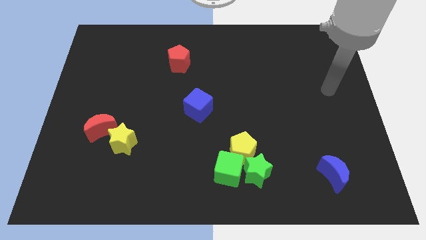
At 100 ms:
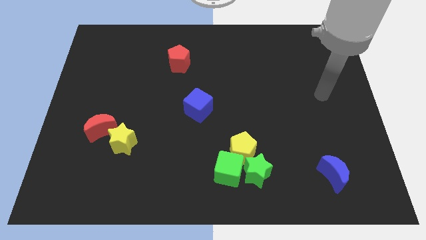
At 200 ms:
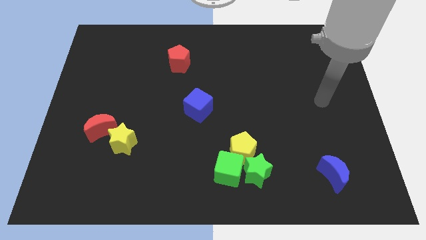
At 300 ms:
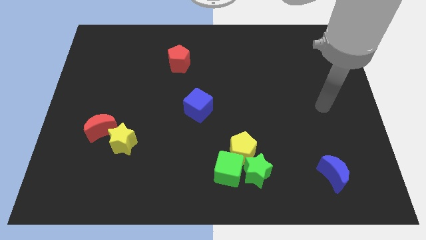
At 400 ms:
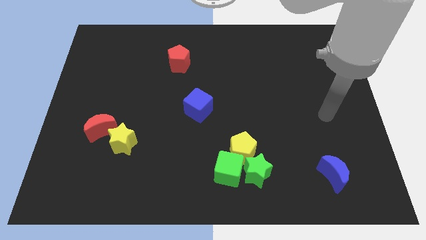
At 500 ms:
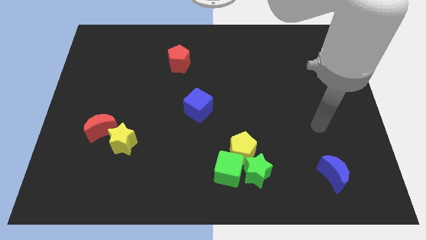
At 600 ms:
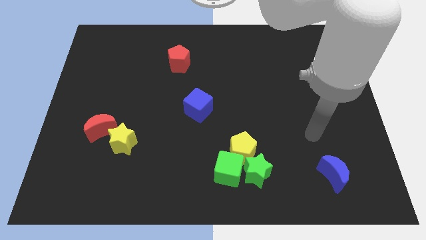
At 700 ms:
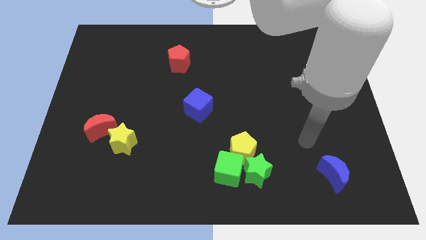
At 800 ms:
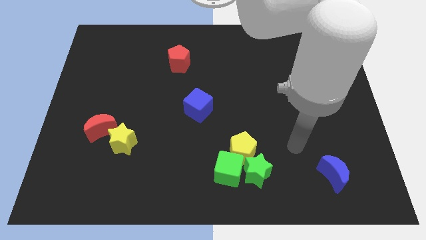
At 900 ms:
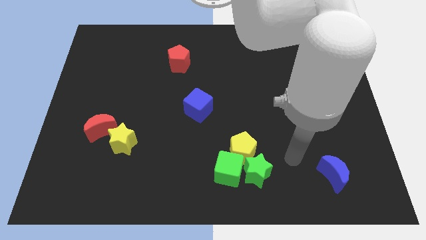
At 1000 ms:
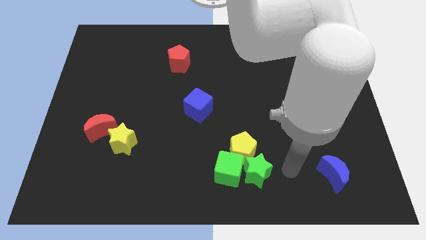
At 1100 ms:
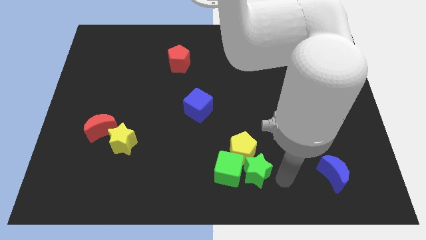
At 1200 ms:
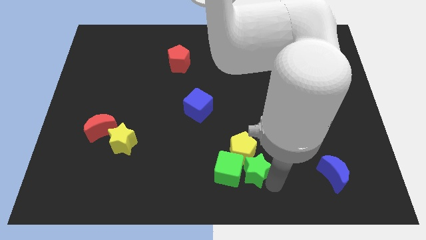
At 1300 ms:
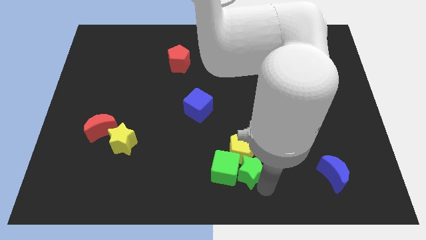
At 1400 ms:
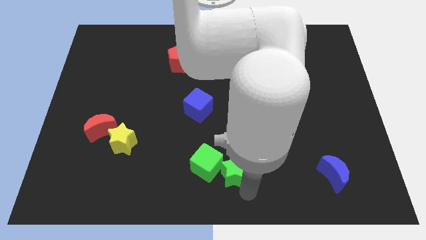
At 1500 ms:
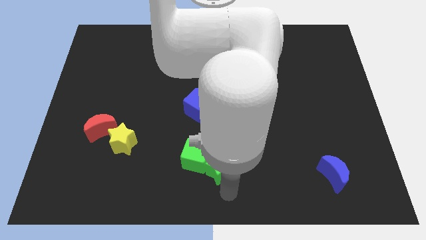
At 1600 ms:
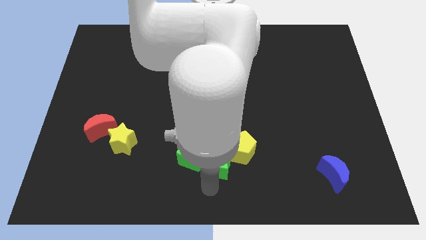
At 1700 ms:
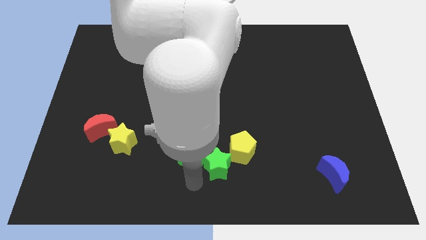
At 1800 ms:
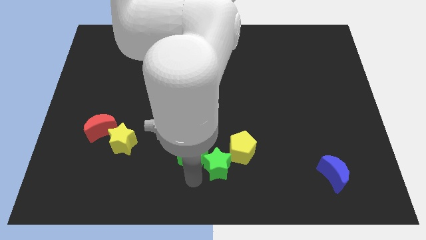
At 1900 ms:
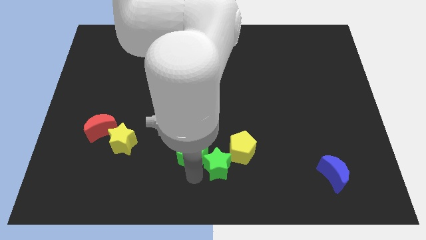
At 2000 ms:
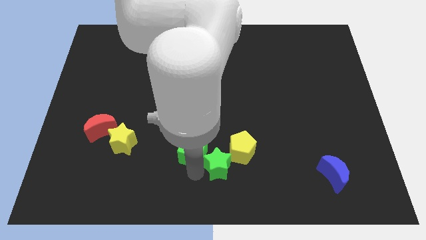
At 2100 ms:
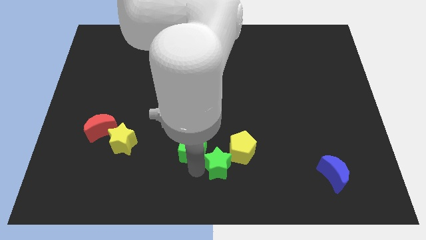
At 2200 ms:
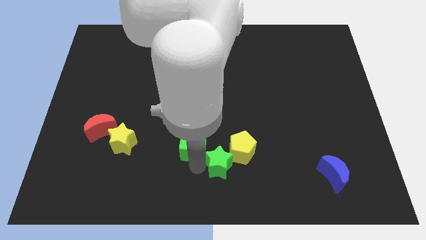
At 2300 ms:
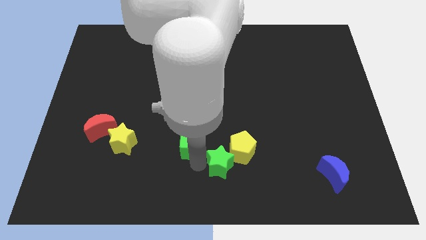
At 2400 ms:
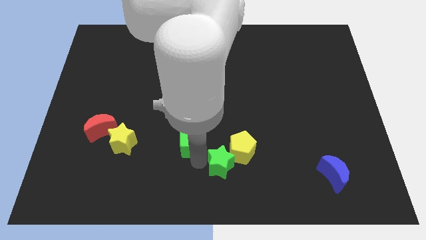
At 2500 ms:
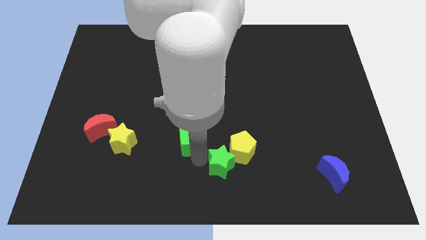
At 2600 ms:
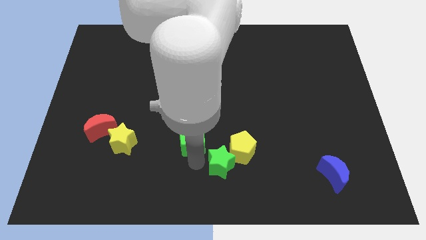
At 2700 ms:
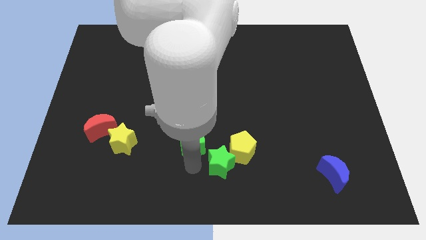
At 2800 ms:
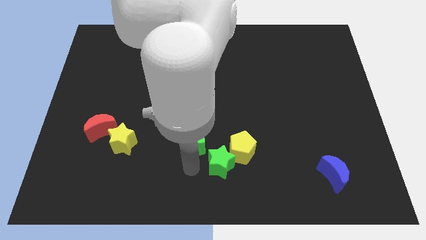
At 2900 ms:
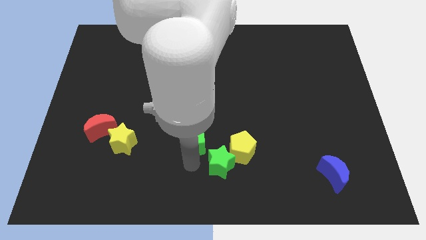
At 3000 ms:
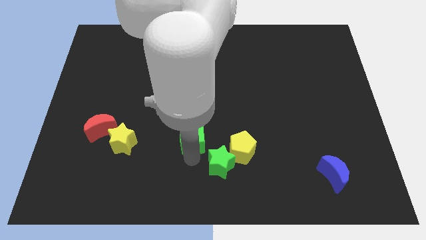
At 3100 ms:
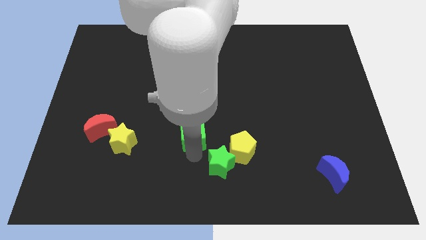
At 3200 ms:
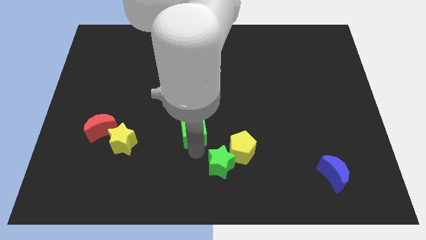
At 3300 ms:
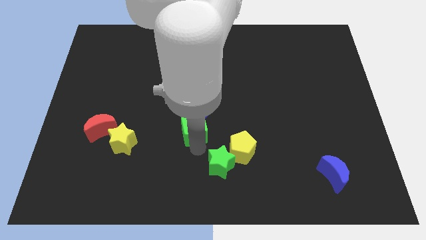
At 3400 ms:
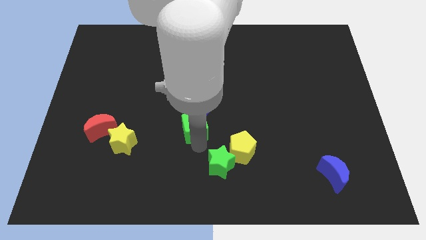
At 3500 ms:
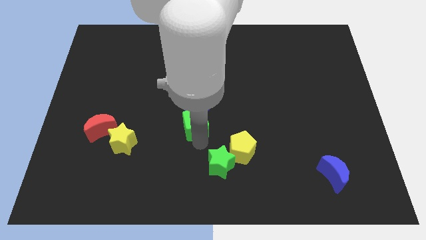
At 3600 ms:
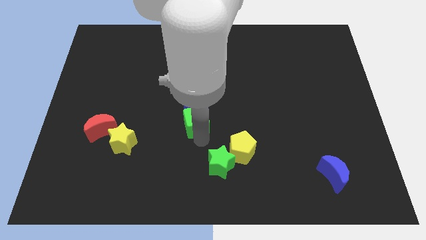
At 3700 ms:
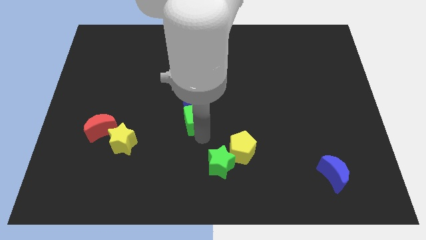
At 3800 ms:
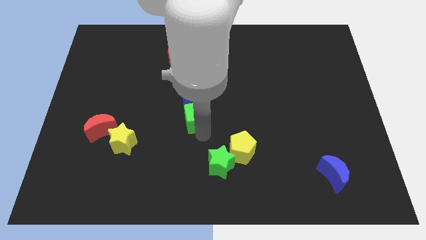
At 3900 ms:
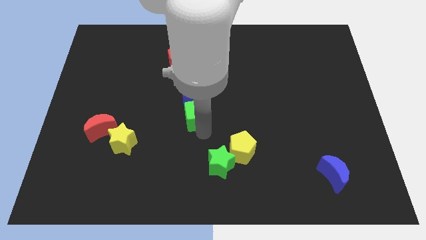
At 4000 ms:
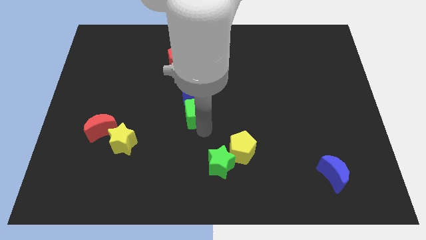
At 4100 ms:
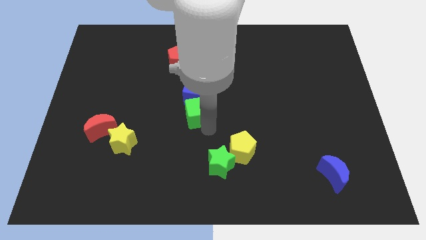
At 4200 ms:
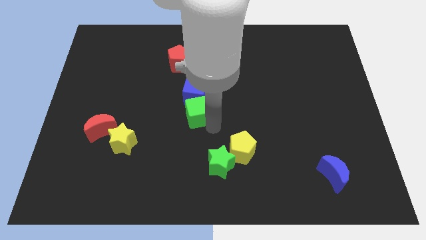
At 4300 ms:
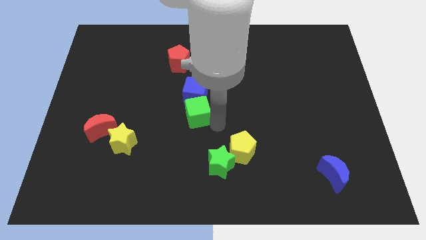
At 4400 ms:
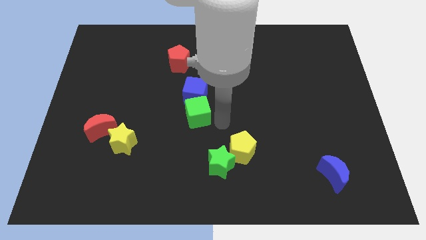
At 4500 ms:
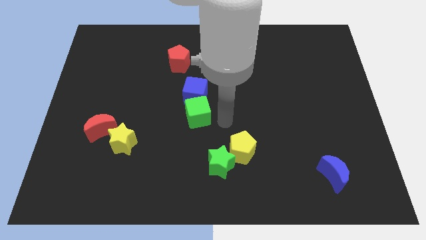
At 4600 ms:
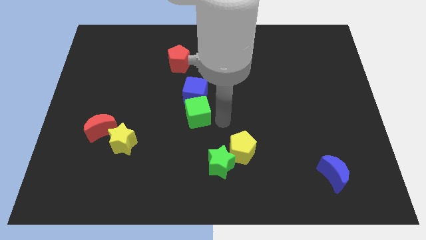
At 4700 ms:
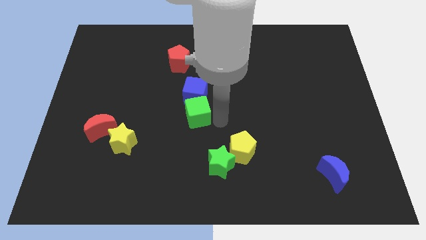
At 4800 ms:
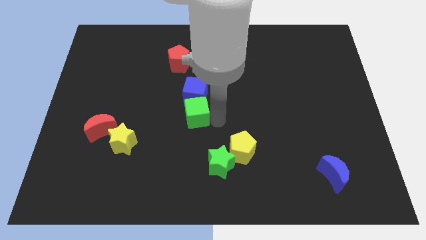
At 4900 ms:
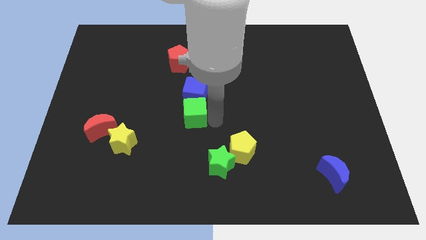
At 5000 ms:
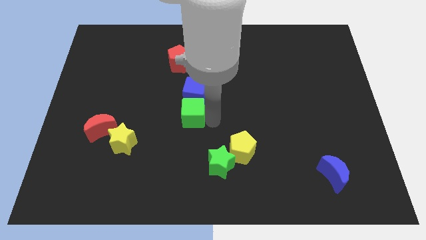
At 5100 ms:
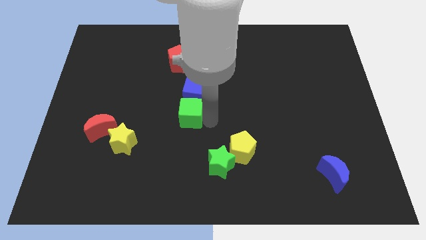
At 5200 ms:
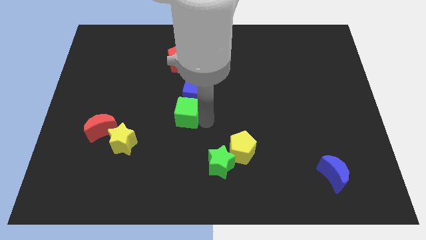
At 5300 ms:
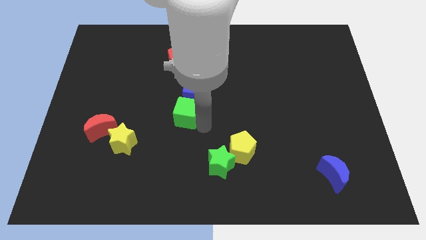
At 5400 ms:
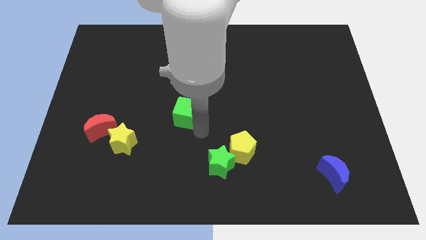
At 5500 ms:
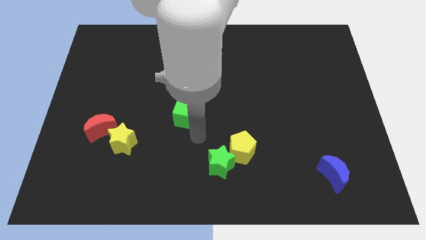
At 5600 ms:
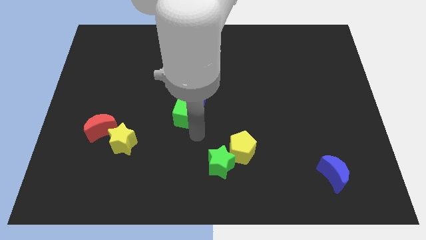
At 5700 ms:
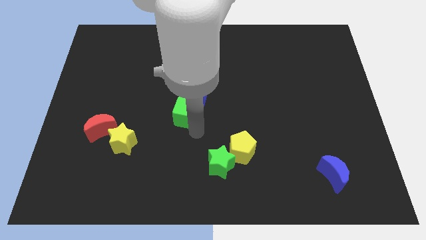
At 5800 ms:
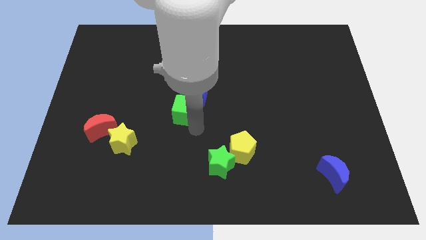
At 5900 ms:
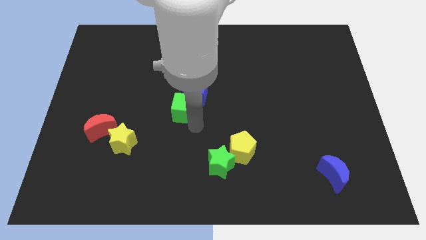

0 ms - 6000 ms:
slide the green cube to the bottom of the red pentagon
